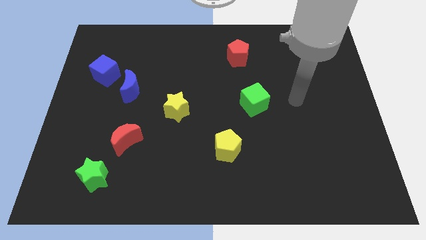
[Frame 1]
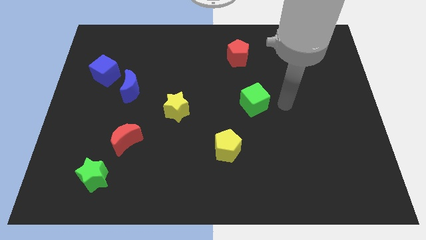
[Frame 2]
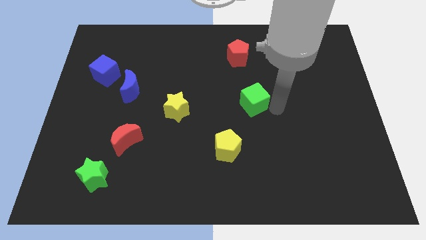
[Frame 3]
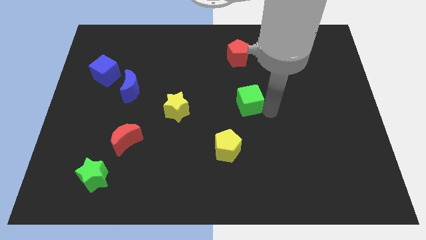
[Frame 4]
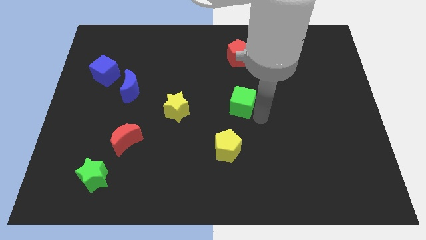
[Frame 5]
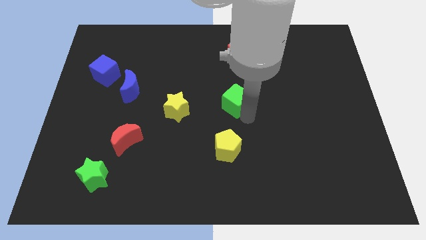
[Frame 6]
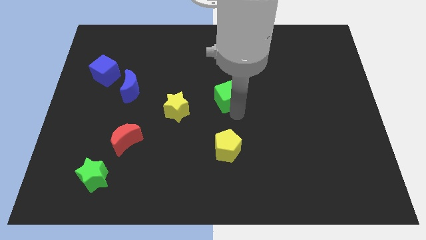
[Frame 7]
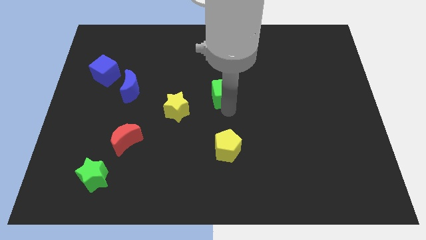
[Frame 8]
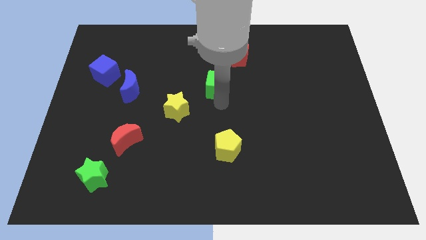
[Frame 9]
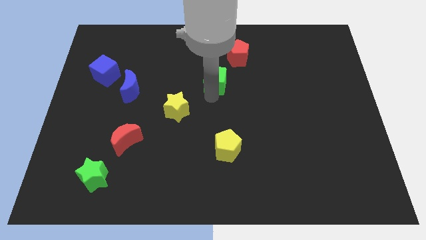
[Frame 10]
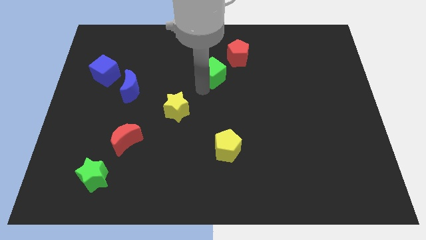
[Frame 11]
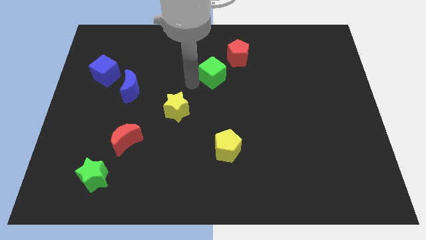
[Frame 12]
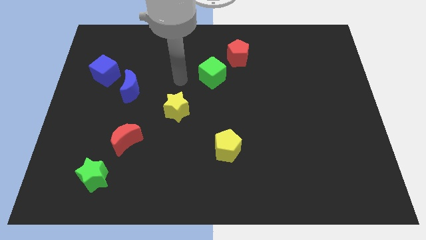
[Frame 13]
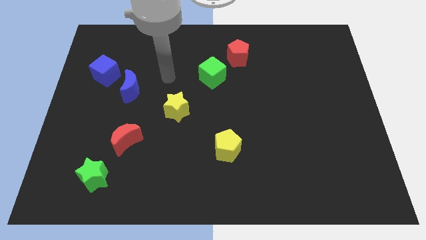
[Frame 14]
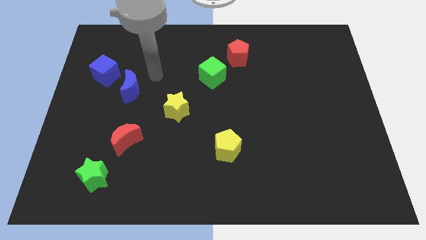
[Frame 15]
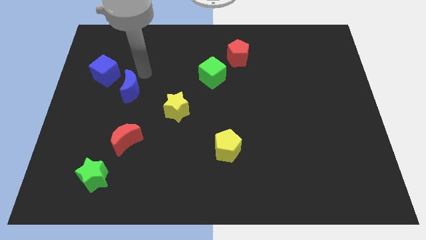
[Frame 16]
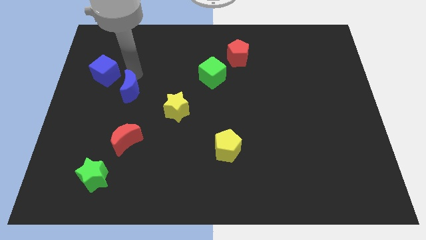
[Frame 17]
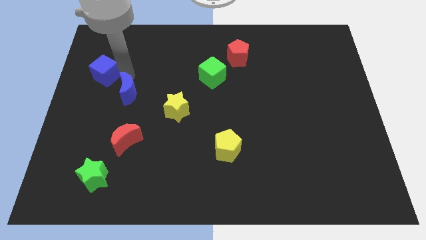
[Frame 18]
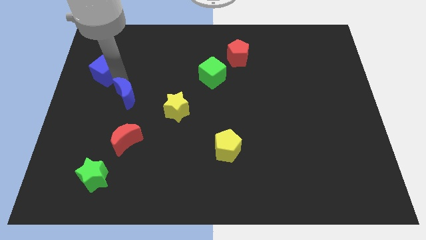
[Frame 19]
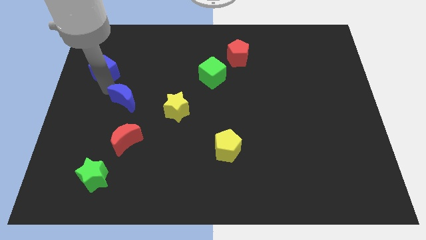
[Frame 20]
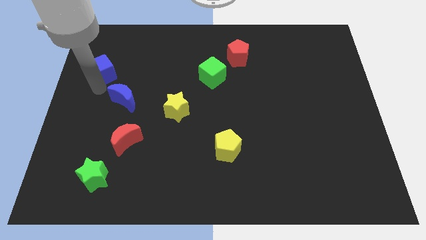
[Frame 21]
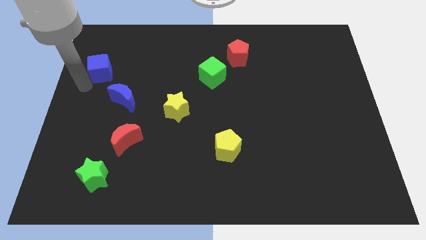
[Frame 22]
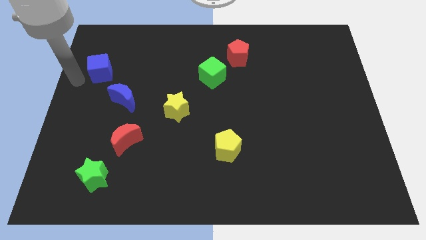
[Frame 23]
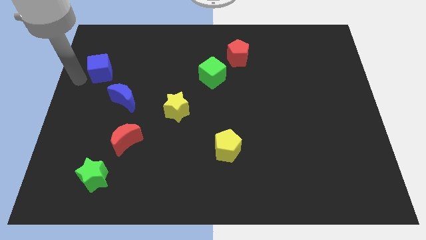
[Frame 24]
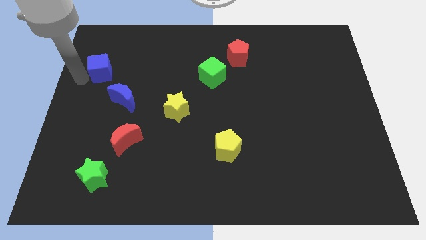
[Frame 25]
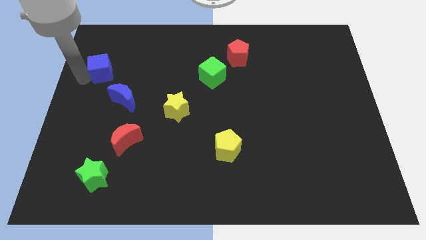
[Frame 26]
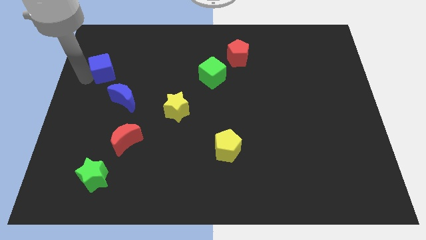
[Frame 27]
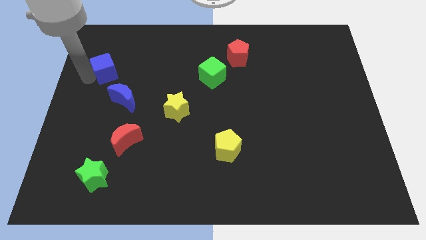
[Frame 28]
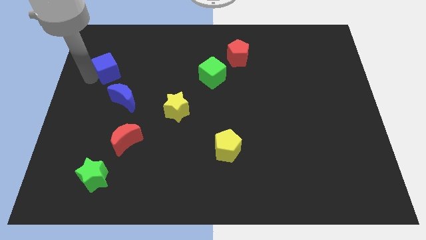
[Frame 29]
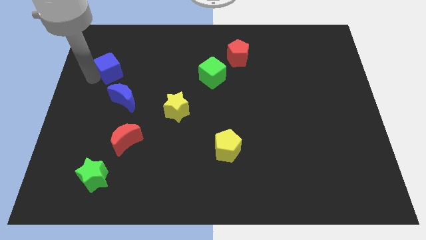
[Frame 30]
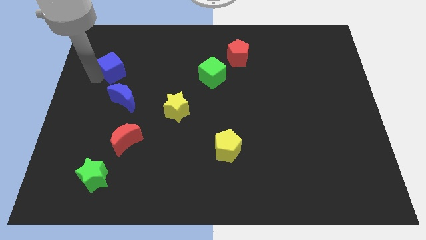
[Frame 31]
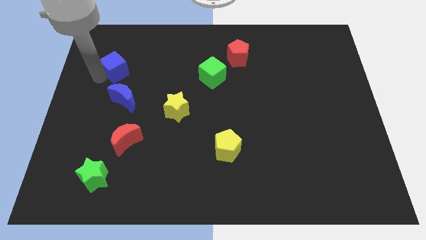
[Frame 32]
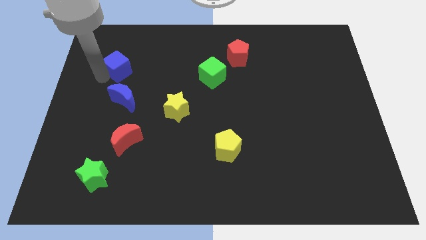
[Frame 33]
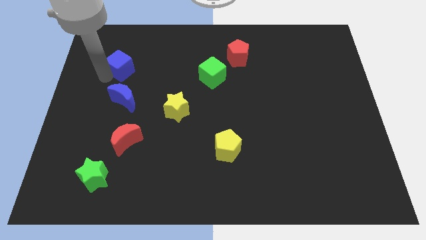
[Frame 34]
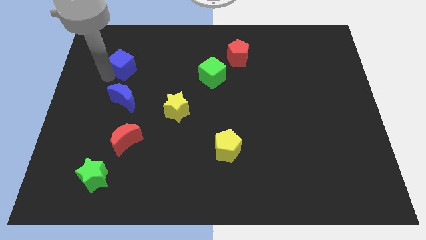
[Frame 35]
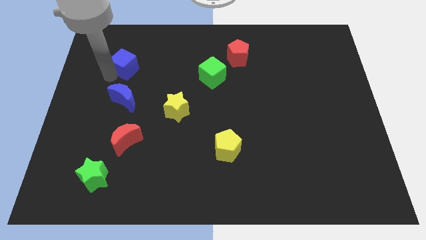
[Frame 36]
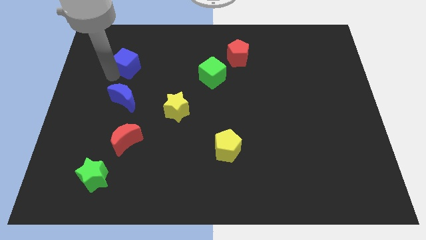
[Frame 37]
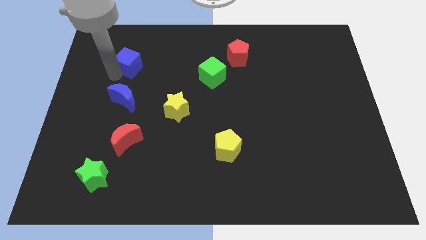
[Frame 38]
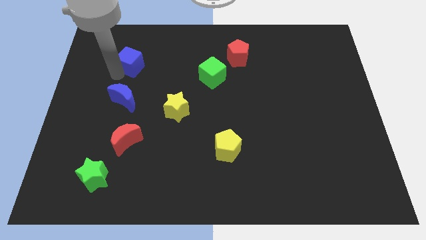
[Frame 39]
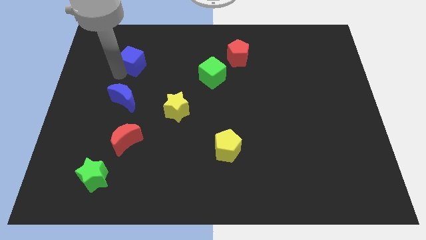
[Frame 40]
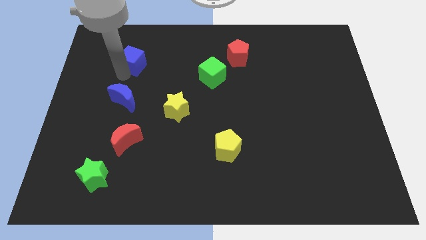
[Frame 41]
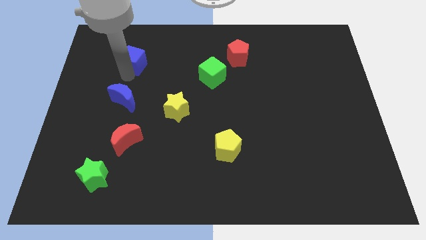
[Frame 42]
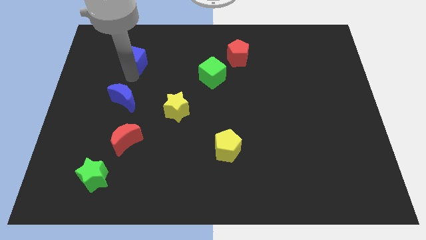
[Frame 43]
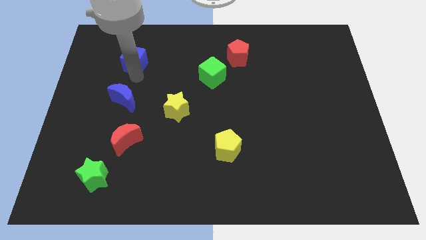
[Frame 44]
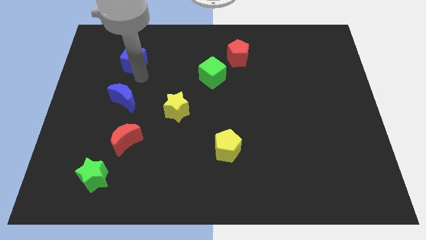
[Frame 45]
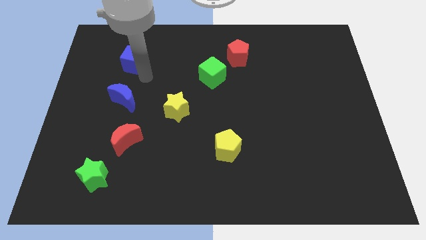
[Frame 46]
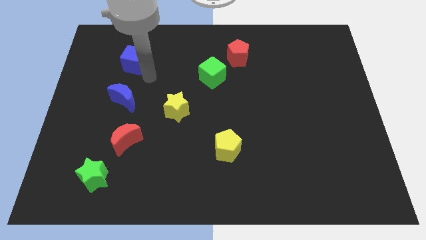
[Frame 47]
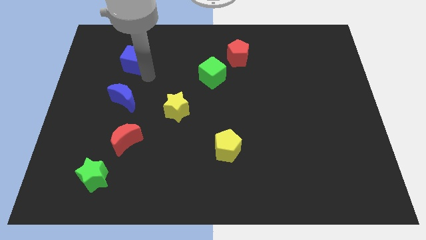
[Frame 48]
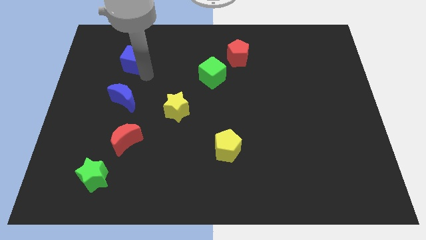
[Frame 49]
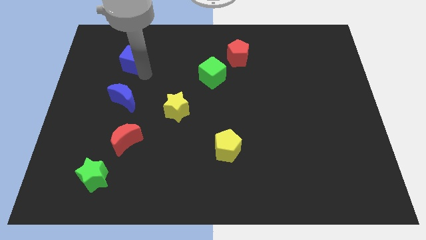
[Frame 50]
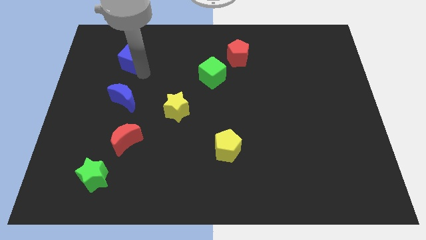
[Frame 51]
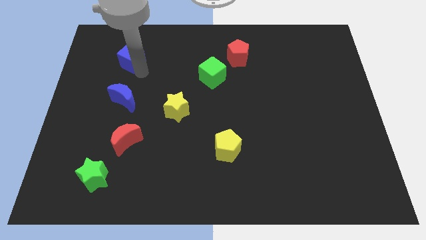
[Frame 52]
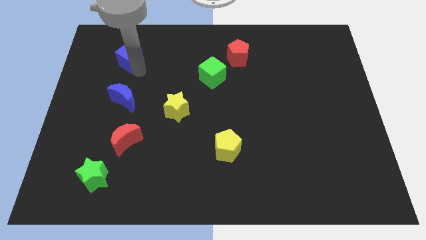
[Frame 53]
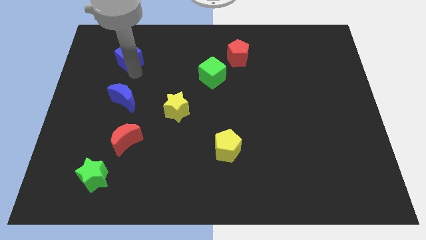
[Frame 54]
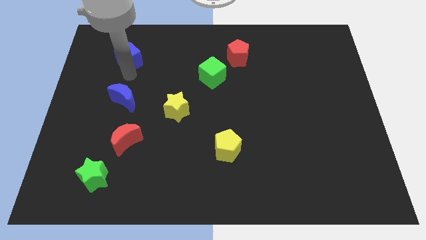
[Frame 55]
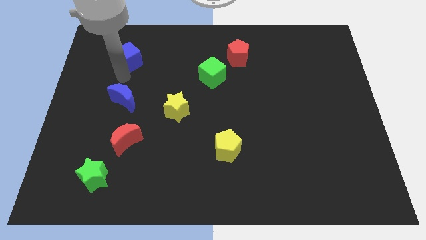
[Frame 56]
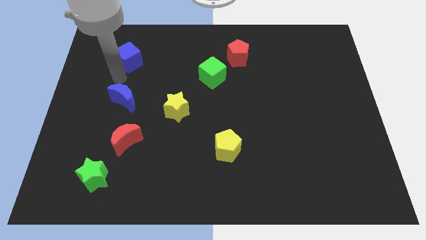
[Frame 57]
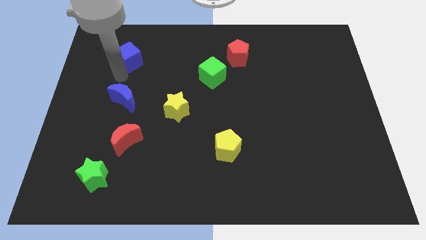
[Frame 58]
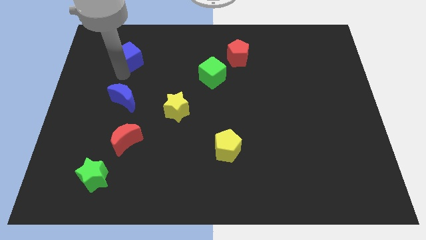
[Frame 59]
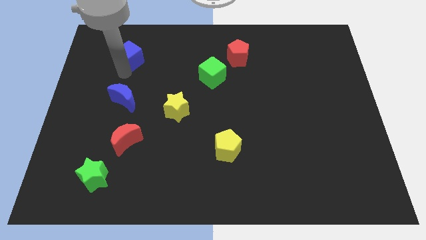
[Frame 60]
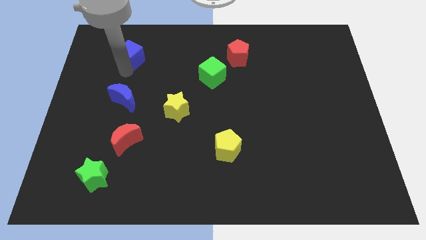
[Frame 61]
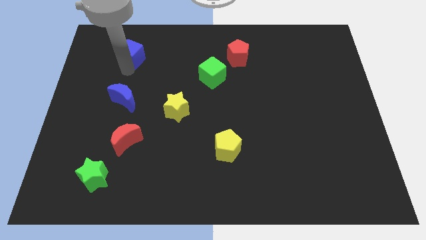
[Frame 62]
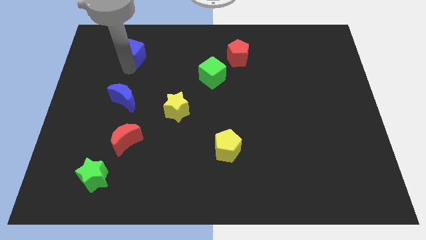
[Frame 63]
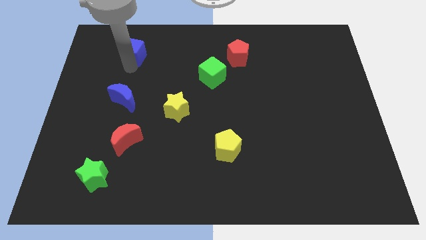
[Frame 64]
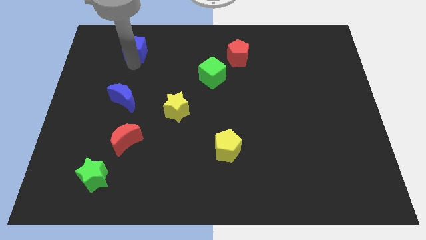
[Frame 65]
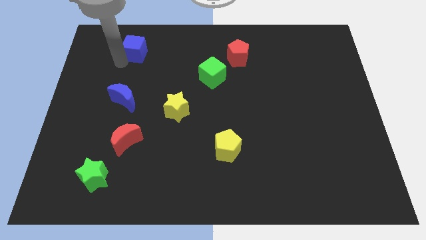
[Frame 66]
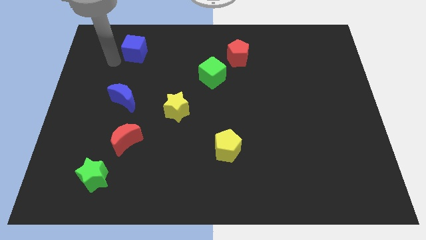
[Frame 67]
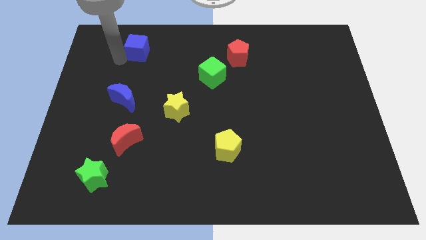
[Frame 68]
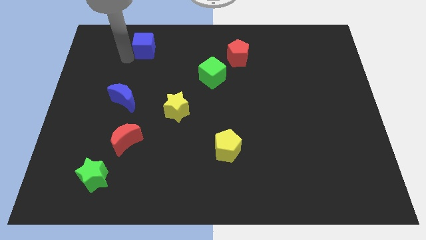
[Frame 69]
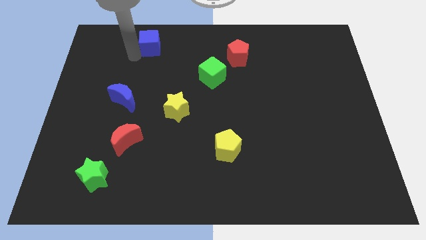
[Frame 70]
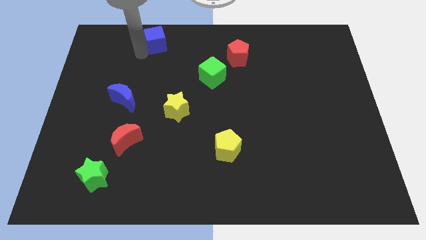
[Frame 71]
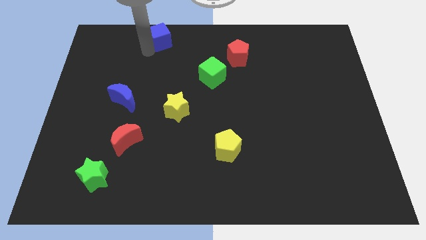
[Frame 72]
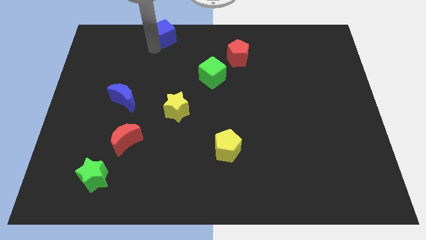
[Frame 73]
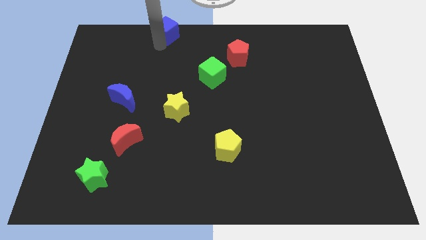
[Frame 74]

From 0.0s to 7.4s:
slide the blue cube to the towards your base
